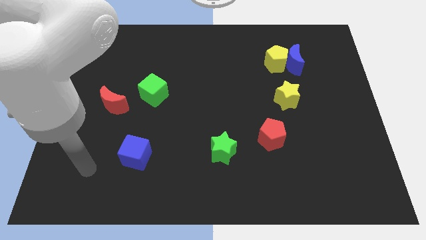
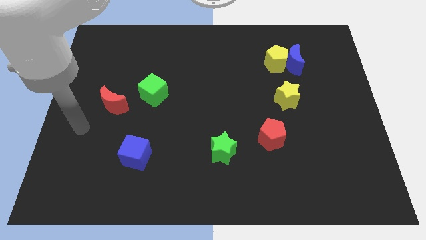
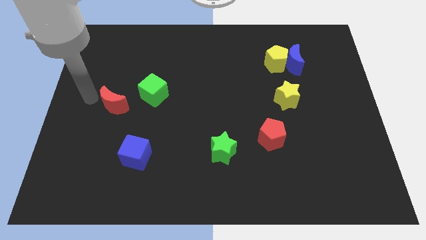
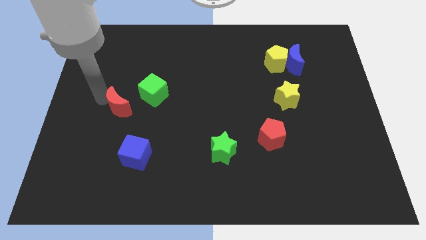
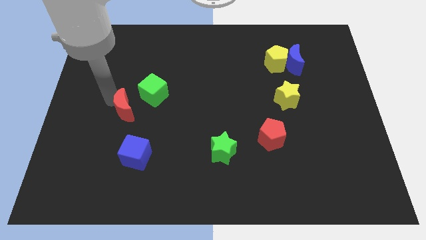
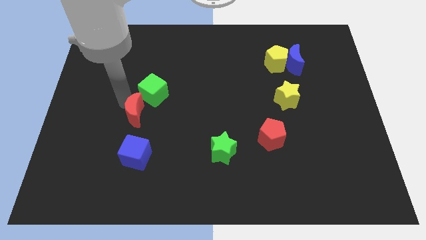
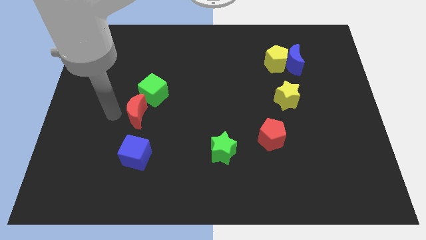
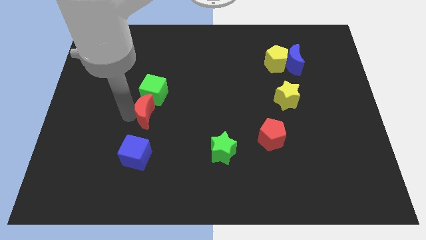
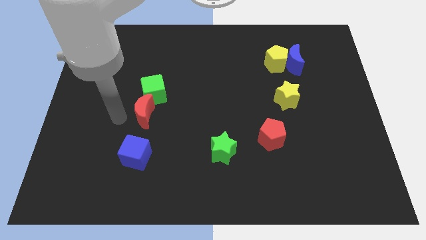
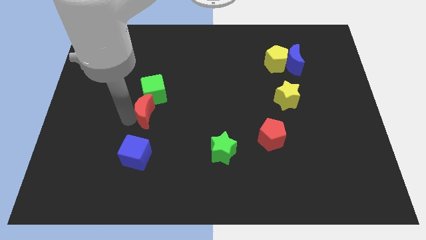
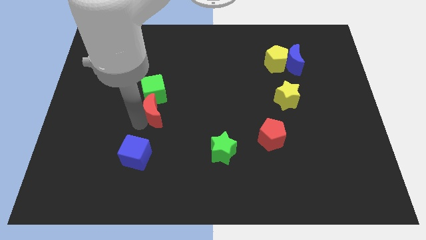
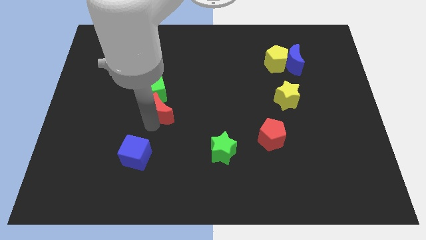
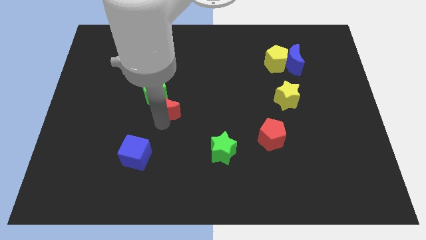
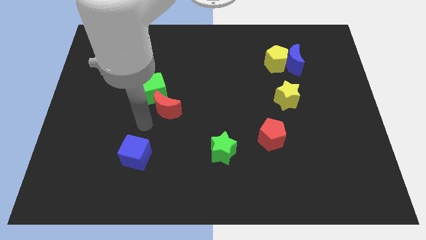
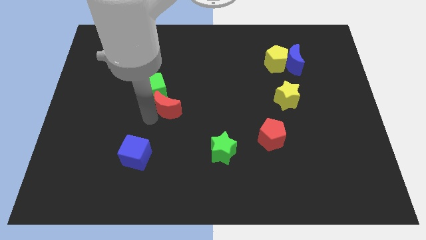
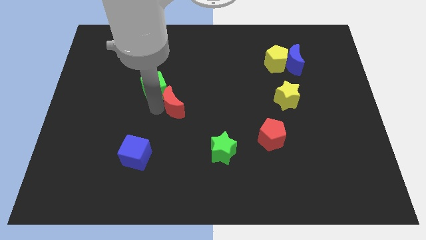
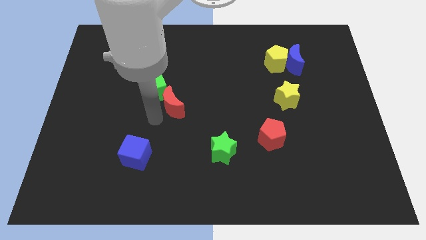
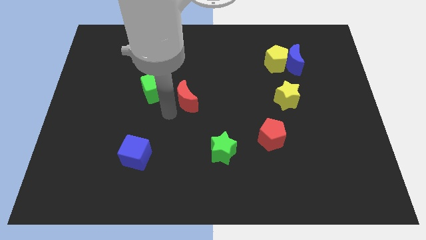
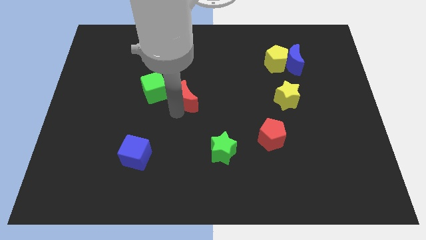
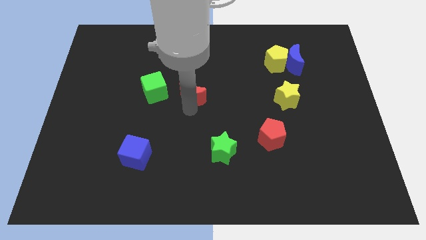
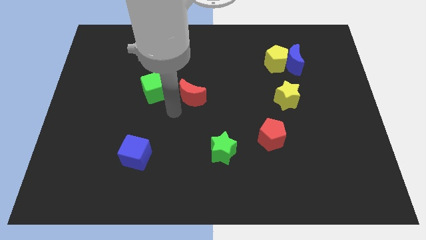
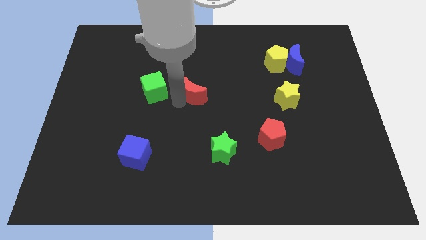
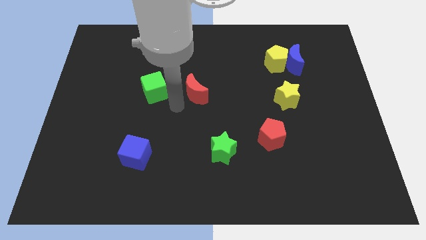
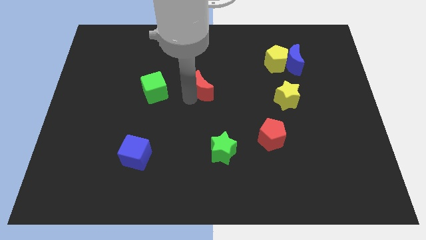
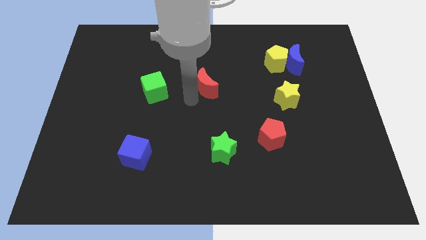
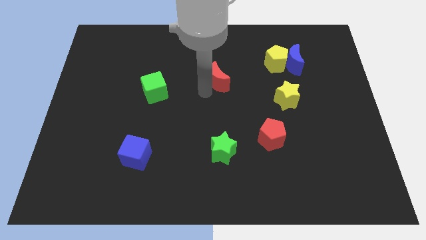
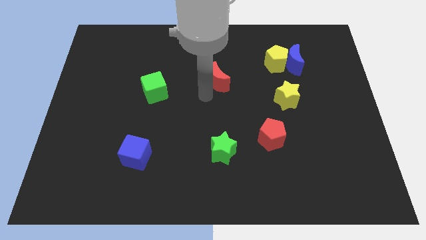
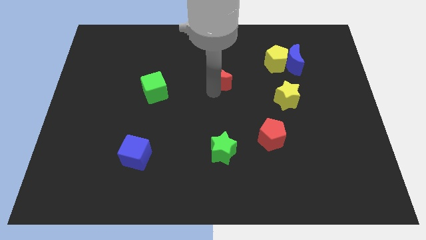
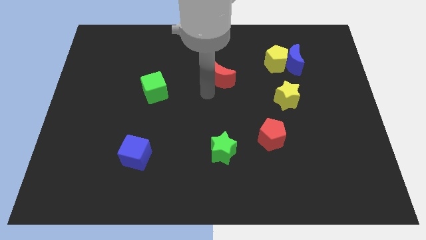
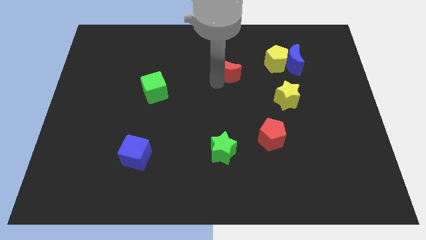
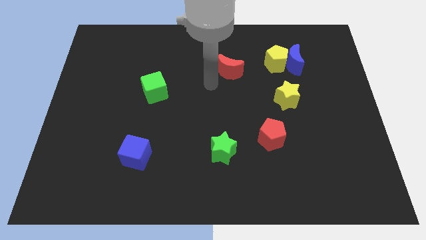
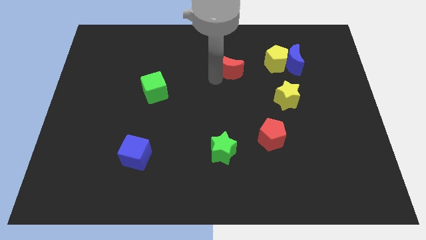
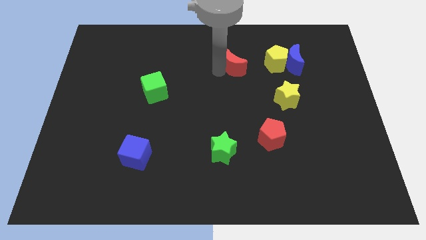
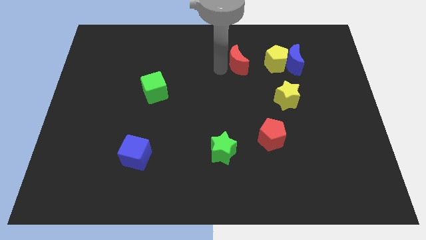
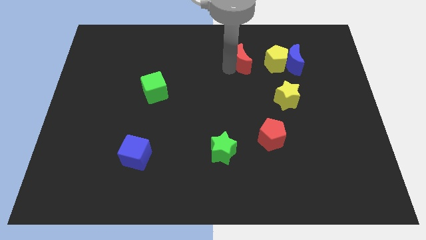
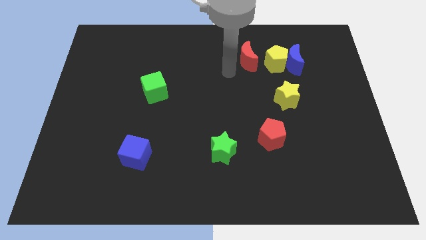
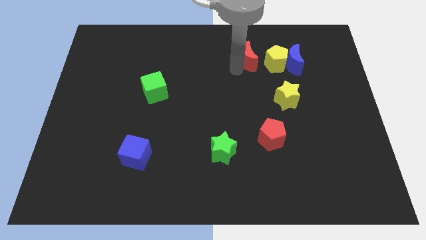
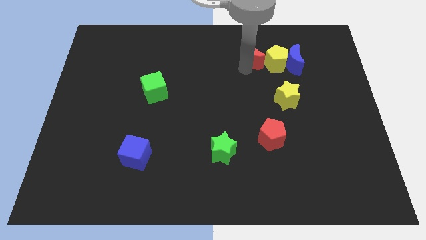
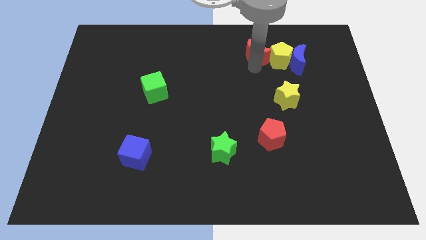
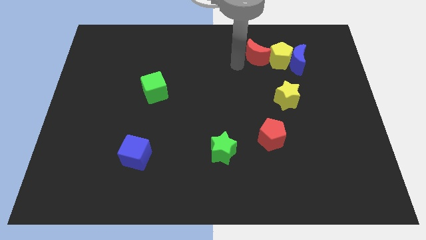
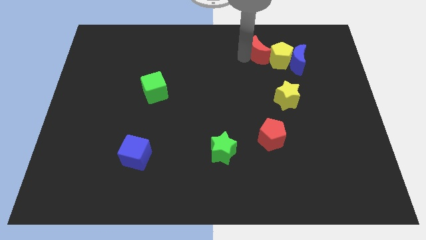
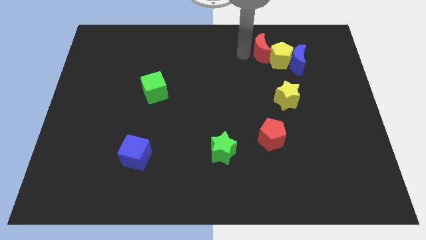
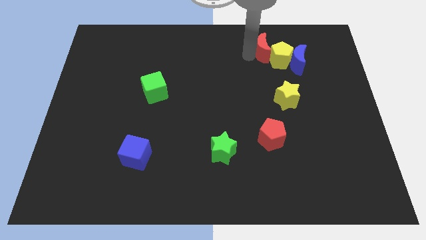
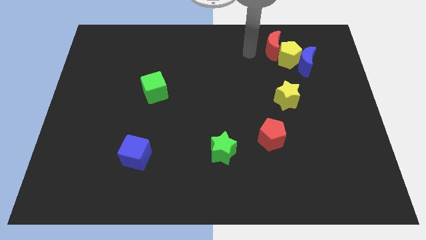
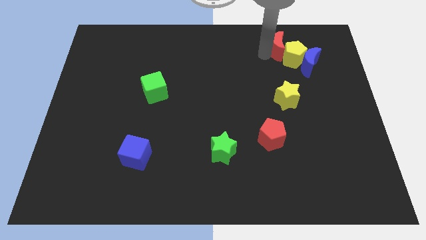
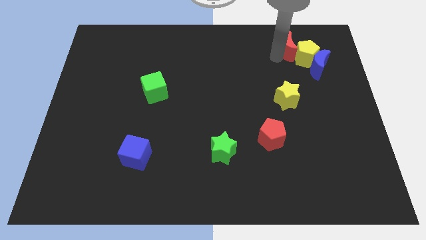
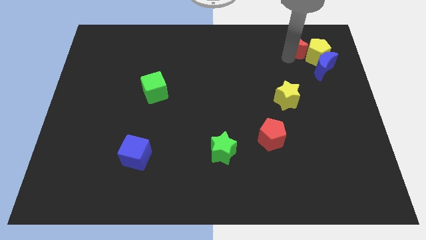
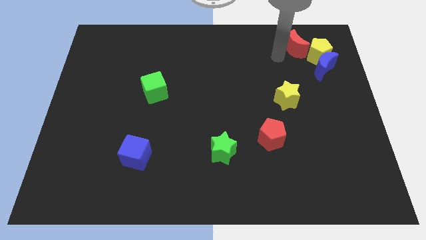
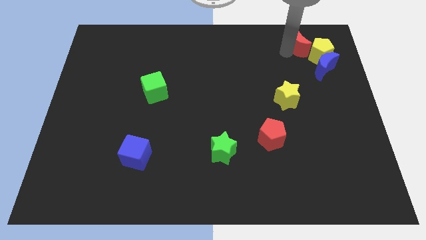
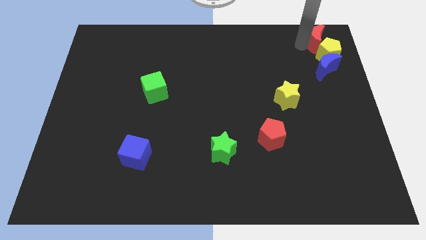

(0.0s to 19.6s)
move the red moon to the top right corner

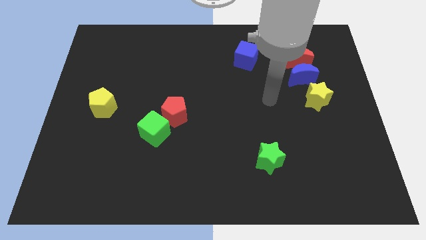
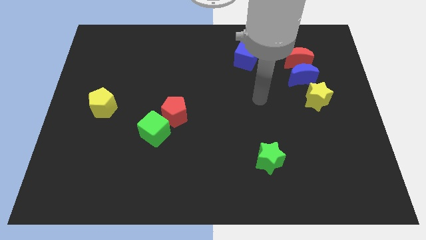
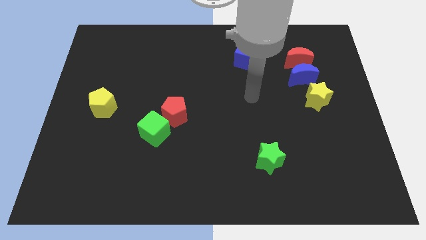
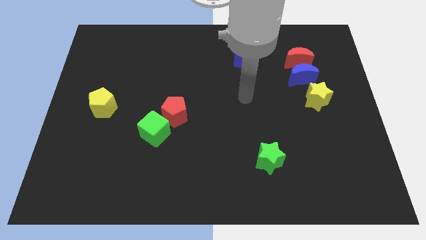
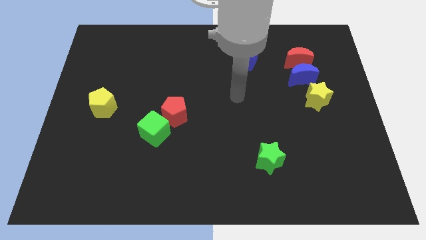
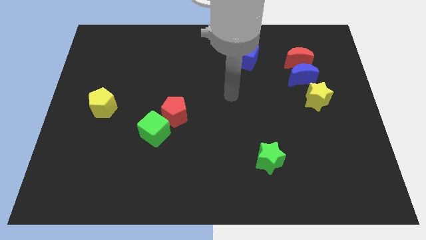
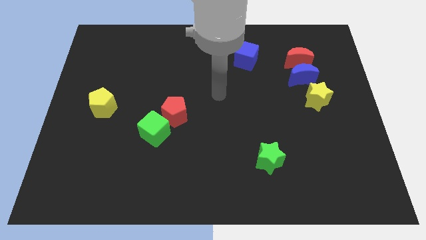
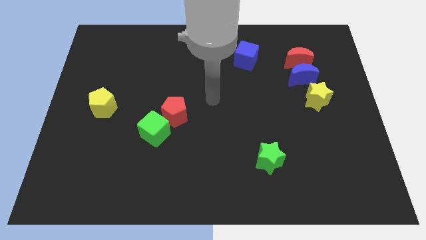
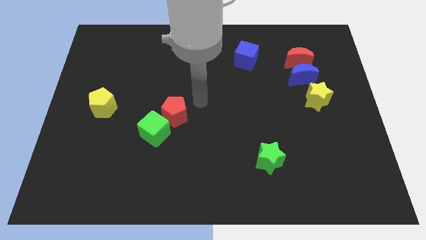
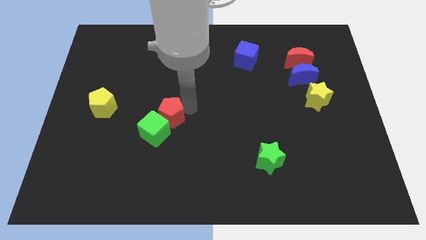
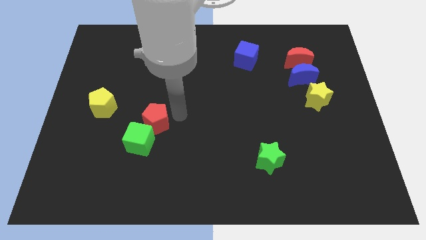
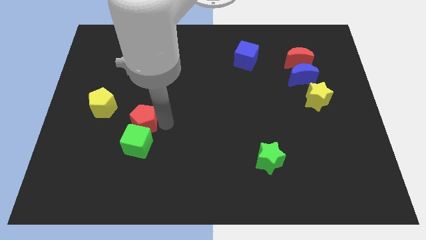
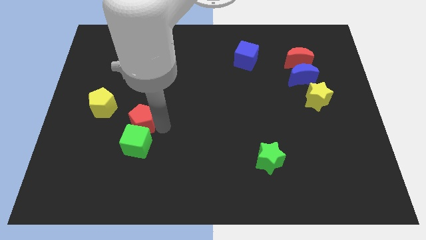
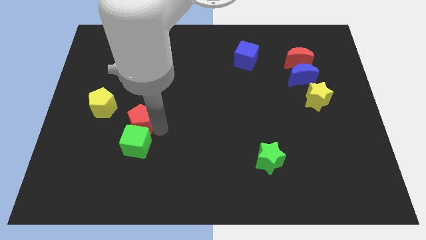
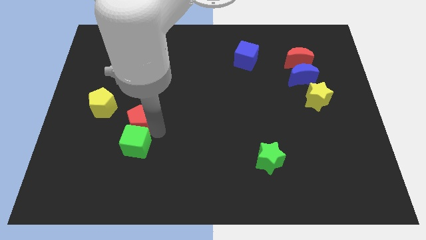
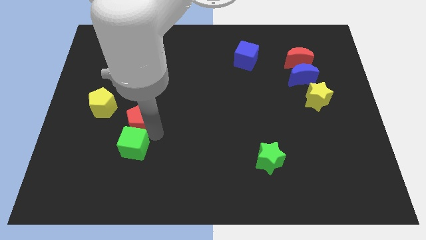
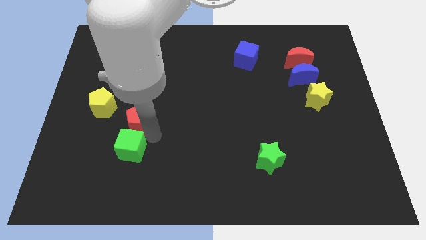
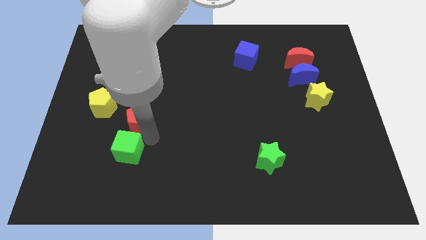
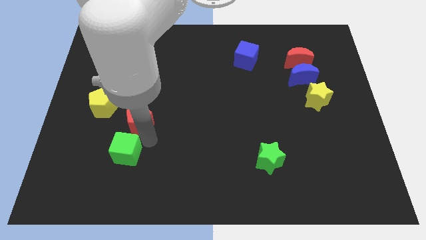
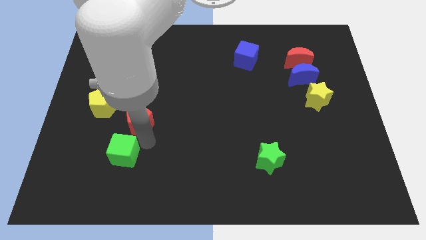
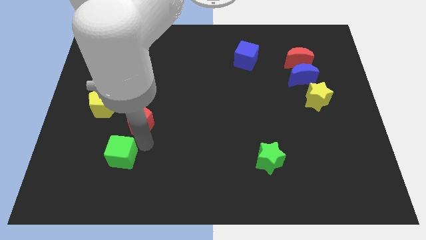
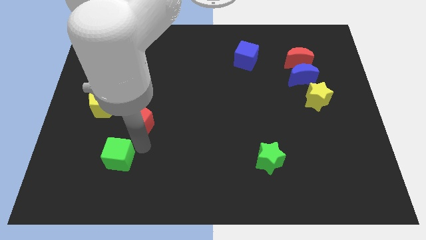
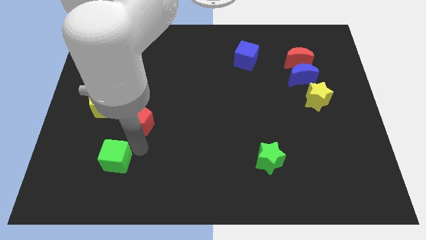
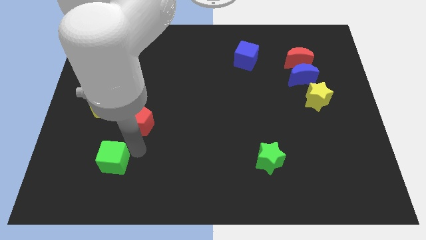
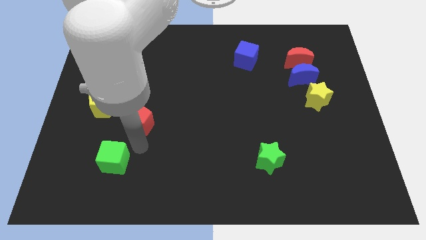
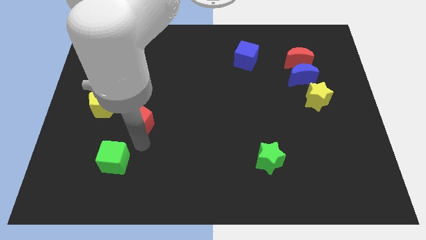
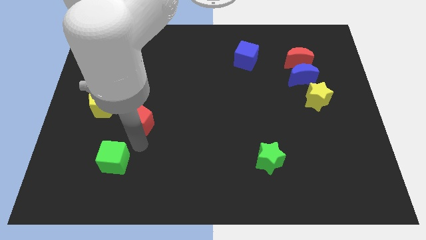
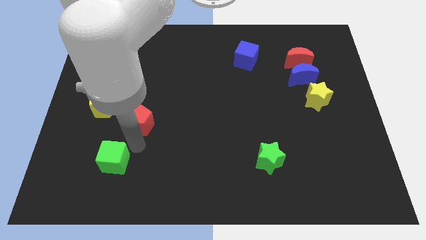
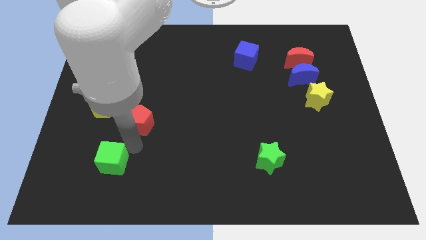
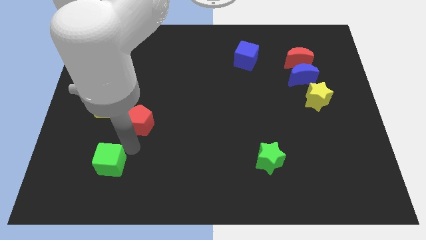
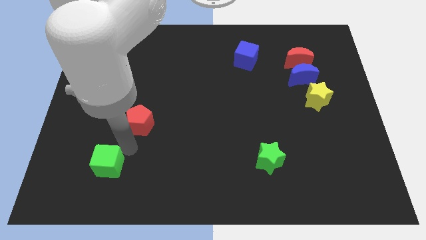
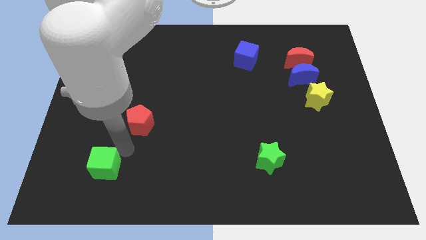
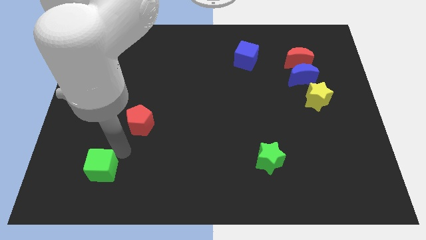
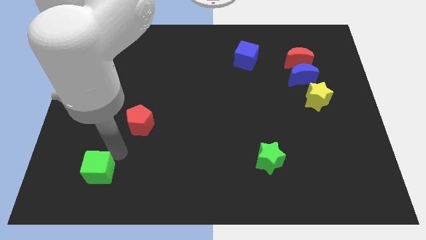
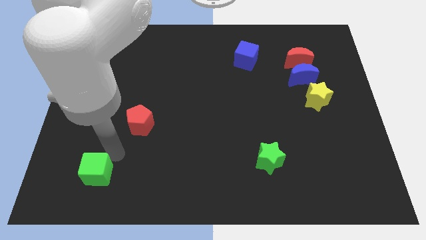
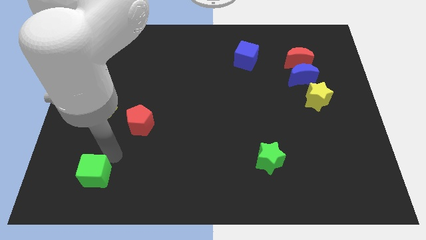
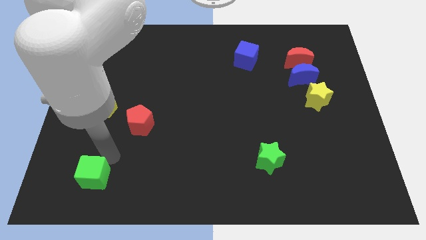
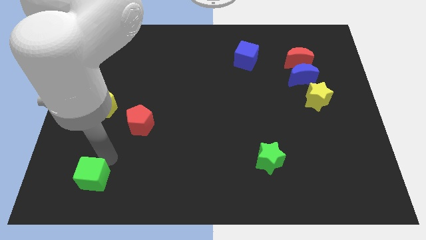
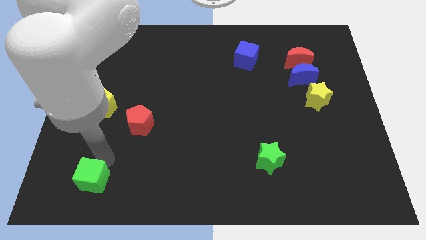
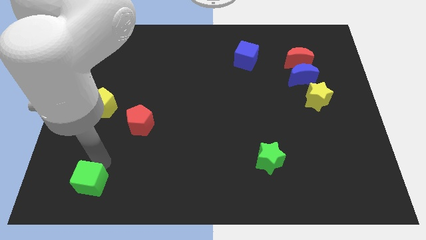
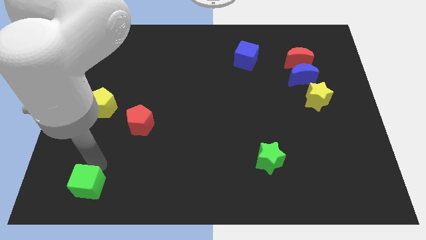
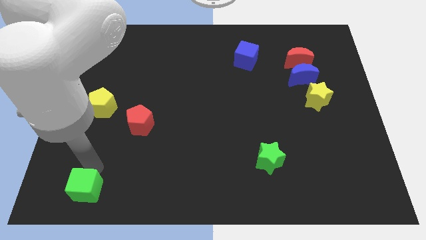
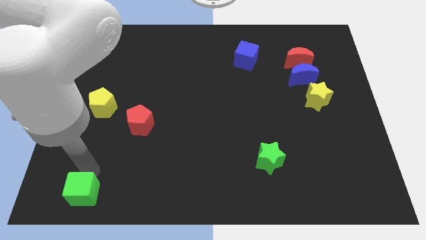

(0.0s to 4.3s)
put the green cube to the lower left corner
